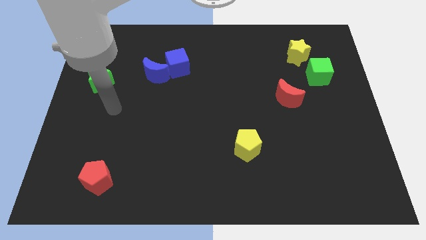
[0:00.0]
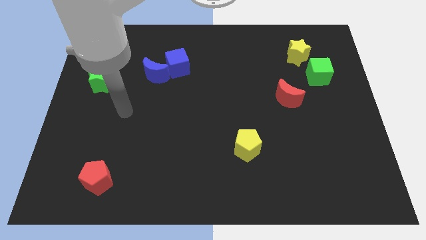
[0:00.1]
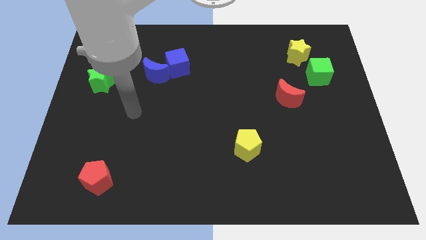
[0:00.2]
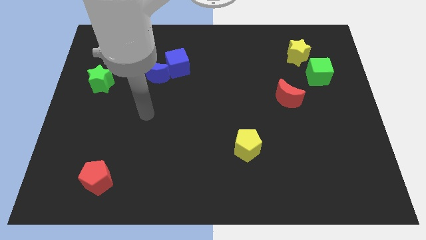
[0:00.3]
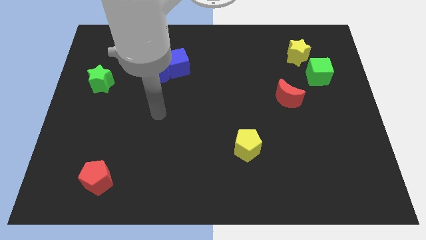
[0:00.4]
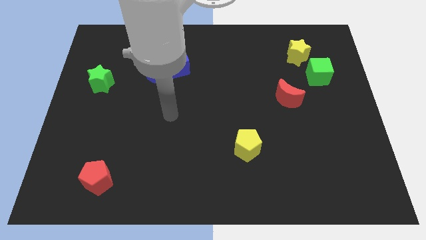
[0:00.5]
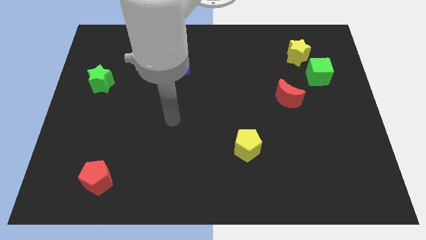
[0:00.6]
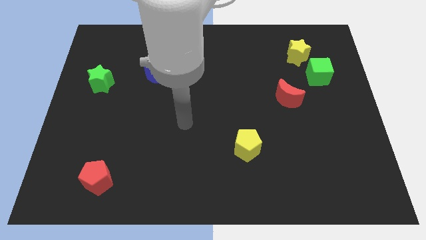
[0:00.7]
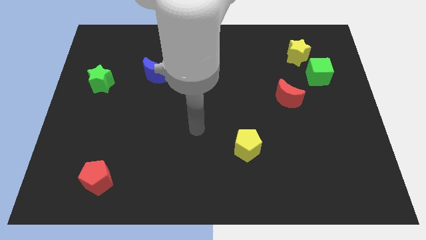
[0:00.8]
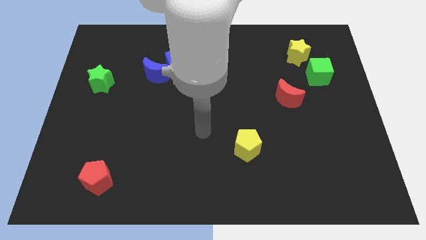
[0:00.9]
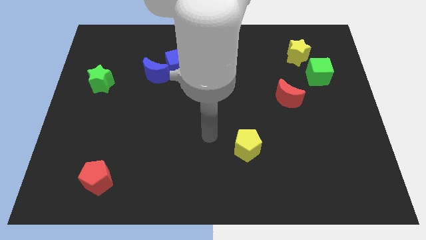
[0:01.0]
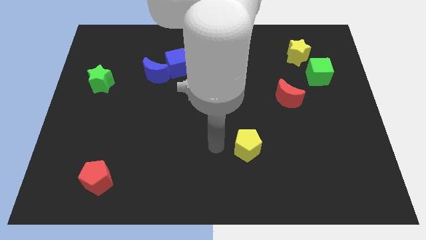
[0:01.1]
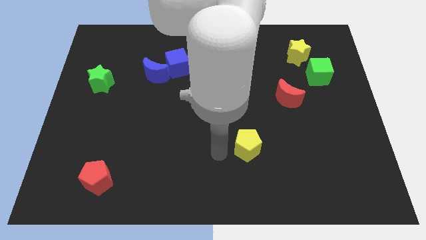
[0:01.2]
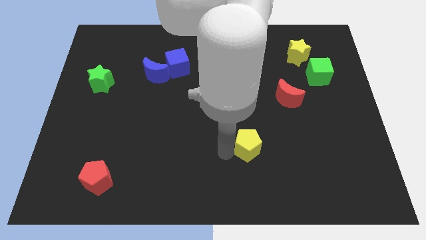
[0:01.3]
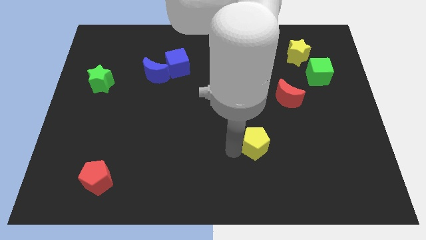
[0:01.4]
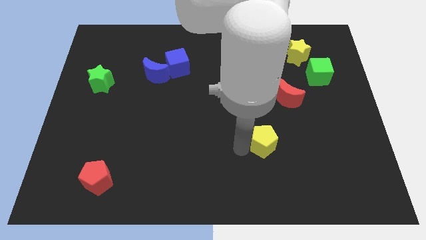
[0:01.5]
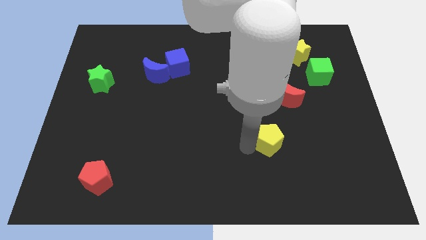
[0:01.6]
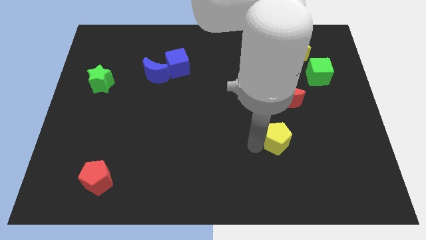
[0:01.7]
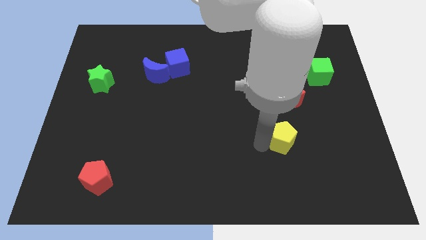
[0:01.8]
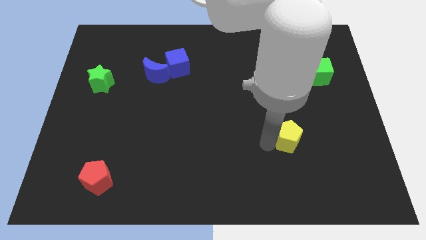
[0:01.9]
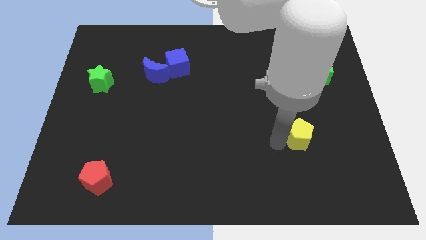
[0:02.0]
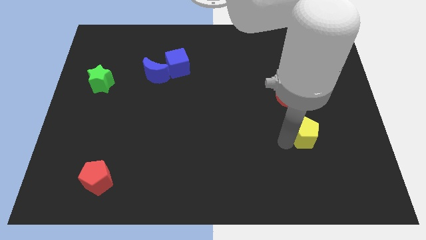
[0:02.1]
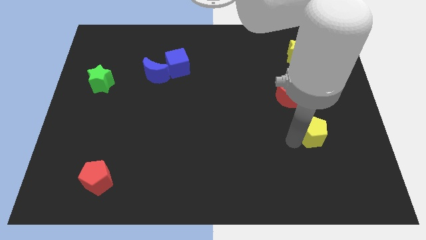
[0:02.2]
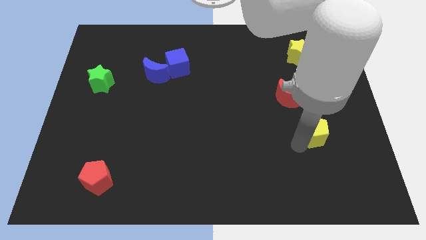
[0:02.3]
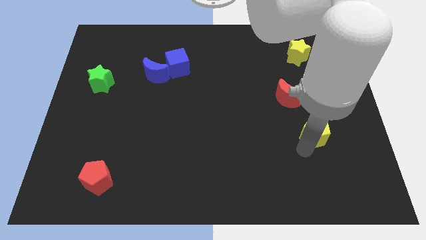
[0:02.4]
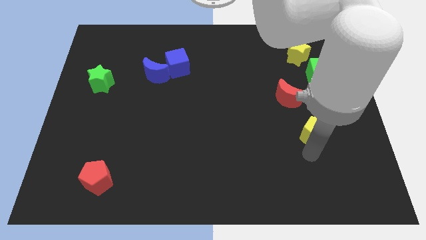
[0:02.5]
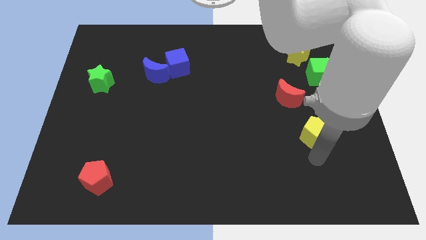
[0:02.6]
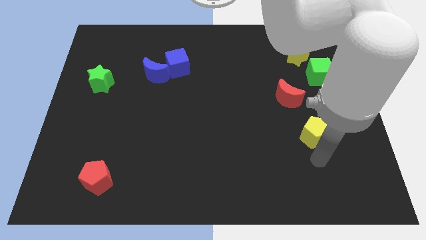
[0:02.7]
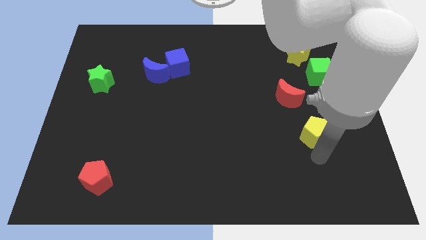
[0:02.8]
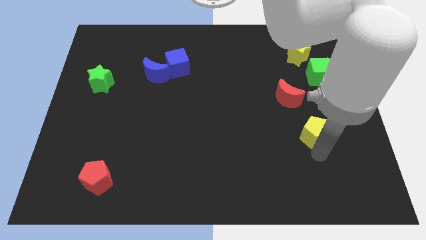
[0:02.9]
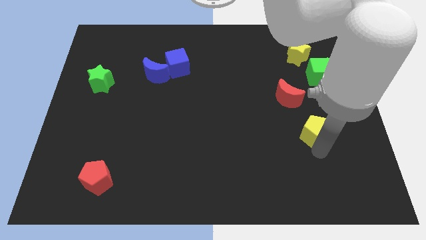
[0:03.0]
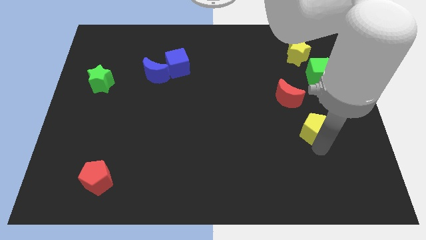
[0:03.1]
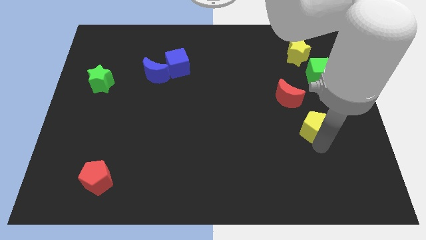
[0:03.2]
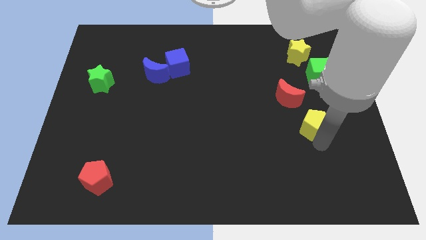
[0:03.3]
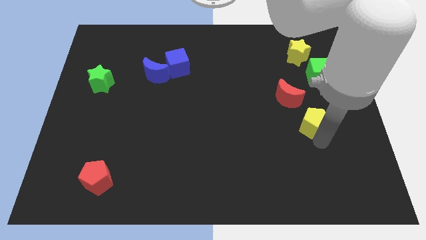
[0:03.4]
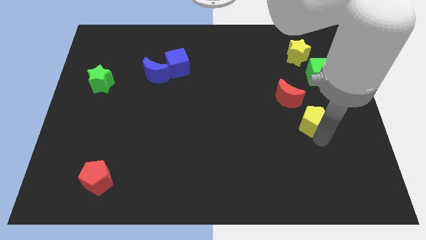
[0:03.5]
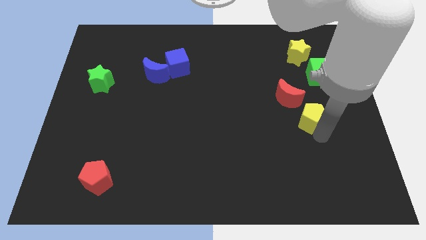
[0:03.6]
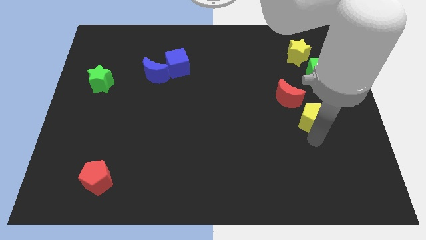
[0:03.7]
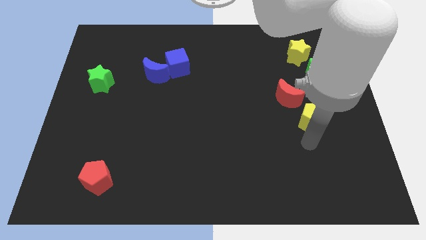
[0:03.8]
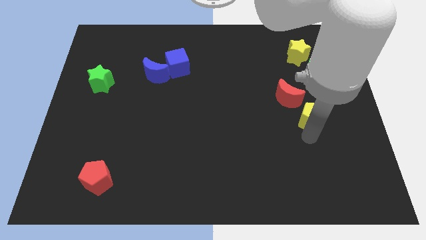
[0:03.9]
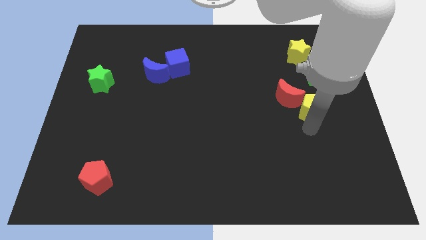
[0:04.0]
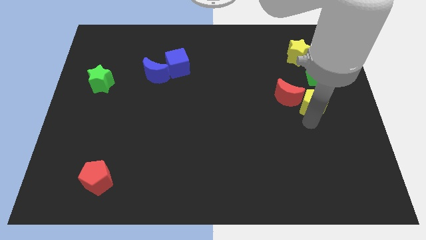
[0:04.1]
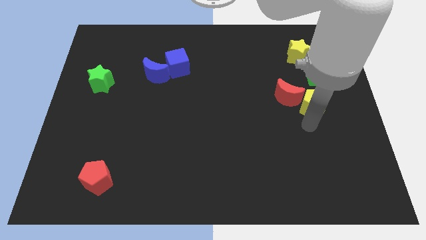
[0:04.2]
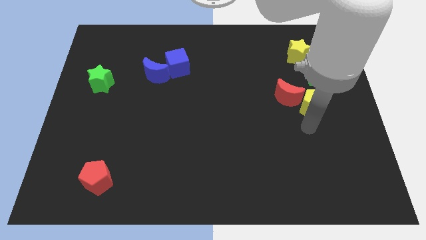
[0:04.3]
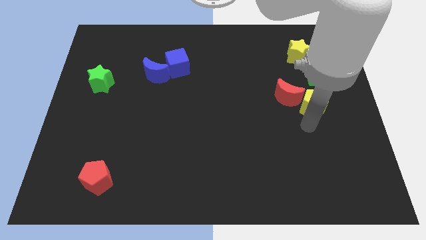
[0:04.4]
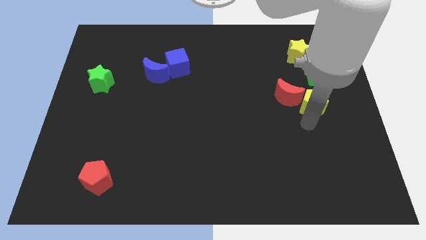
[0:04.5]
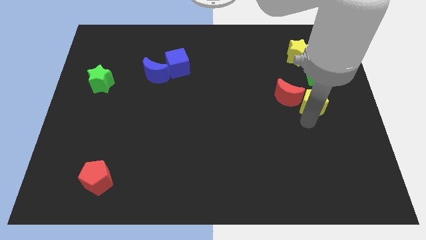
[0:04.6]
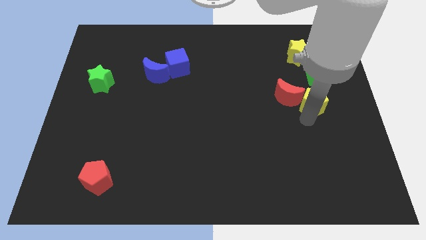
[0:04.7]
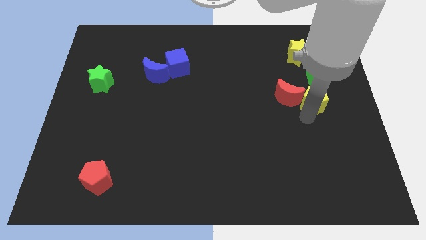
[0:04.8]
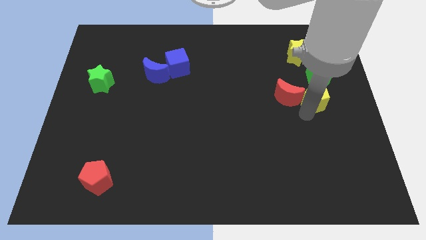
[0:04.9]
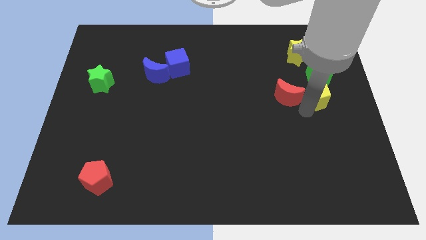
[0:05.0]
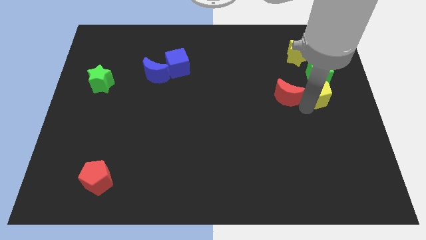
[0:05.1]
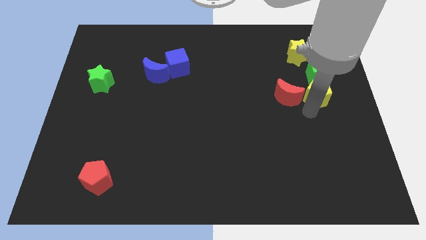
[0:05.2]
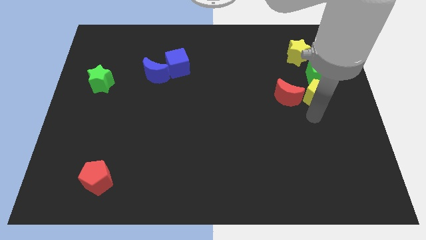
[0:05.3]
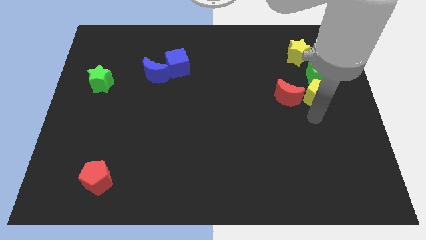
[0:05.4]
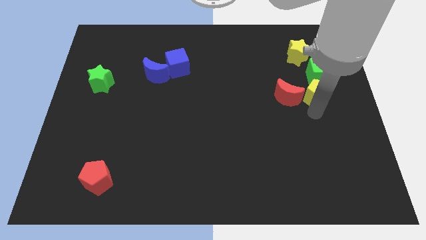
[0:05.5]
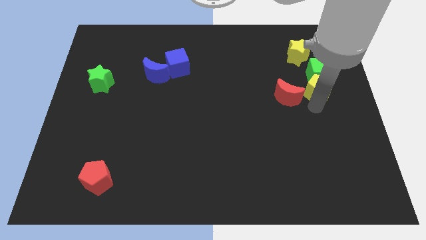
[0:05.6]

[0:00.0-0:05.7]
put the yellow pentagon next to the green cube

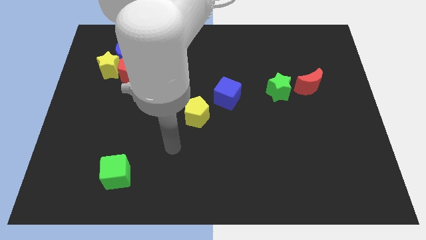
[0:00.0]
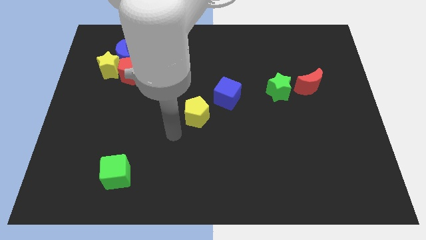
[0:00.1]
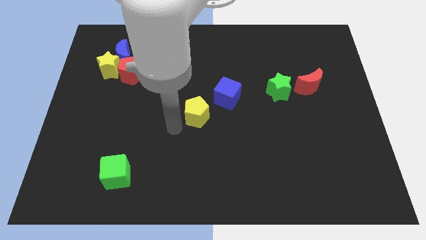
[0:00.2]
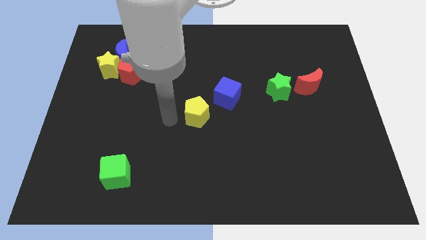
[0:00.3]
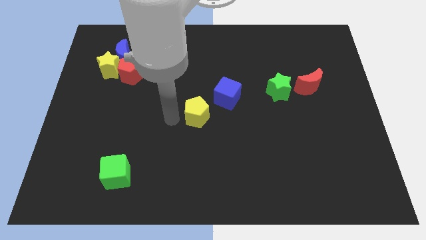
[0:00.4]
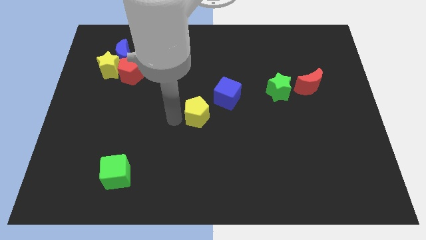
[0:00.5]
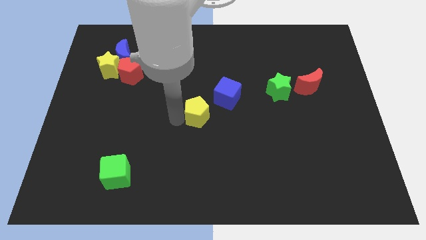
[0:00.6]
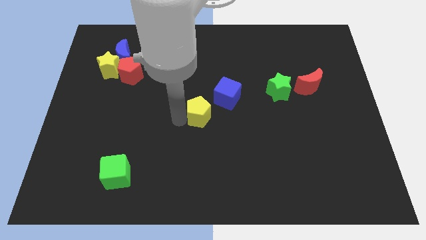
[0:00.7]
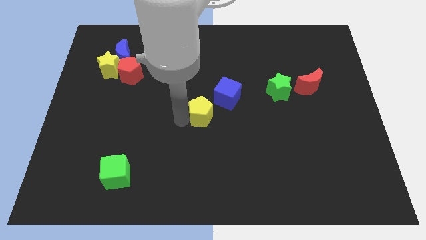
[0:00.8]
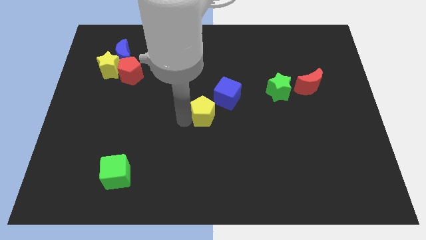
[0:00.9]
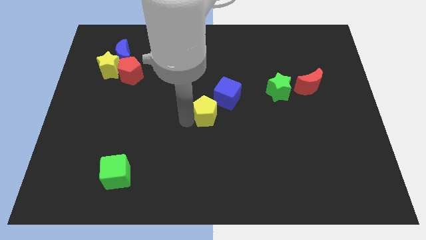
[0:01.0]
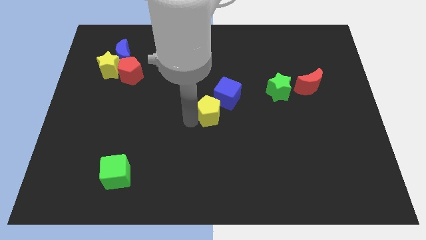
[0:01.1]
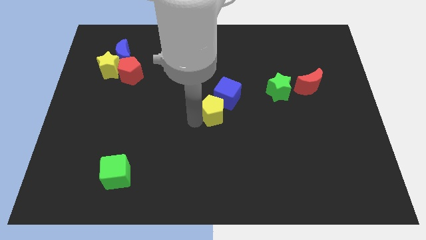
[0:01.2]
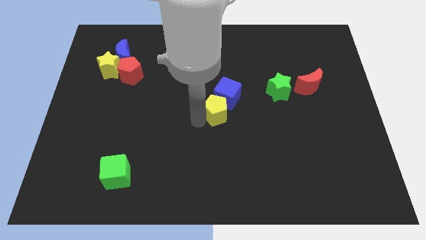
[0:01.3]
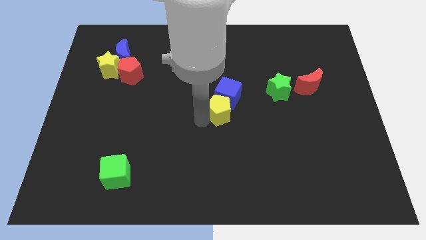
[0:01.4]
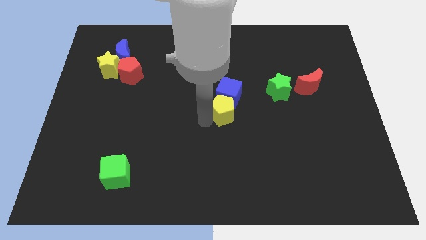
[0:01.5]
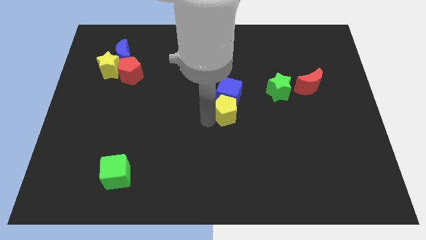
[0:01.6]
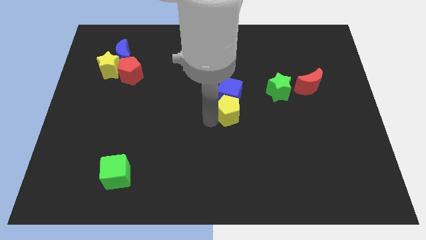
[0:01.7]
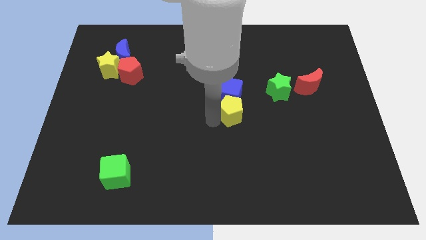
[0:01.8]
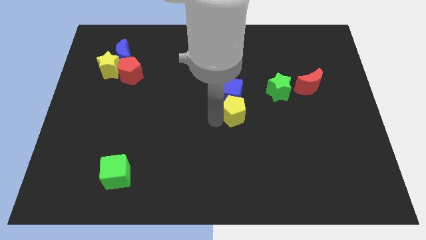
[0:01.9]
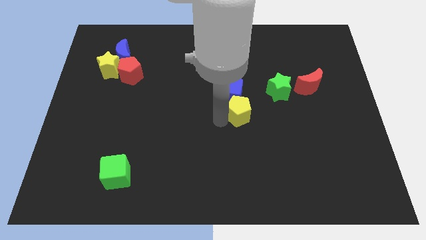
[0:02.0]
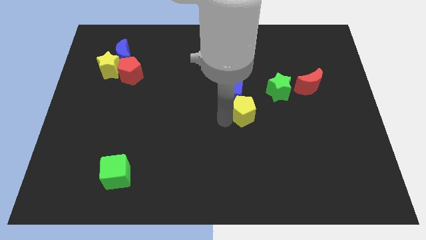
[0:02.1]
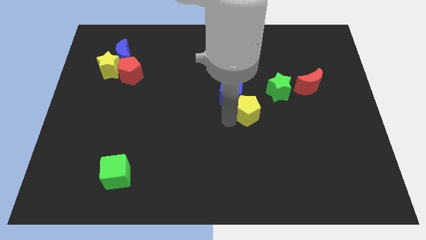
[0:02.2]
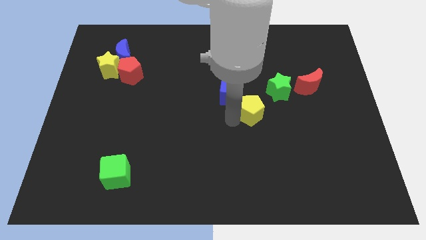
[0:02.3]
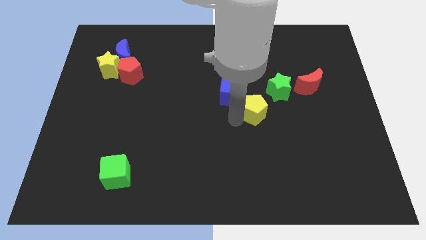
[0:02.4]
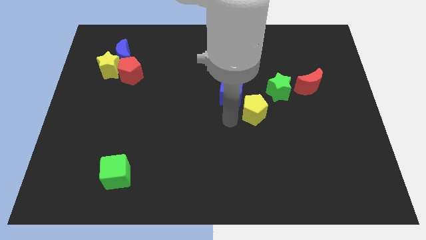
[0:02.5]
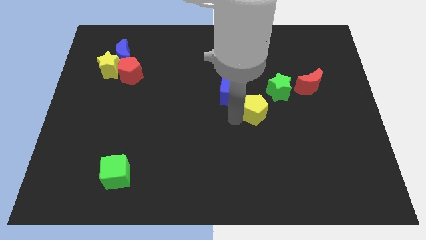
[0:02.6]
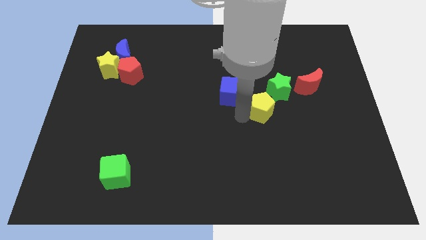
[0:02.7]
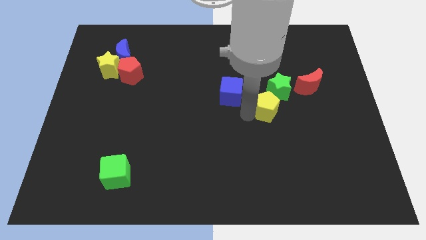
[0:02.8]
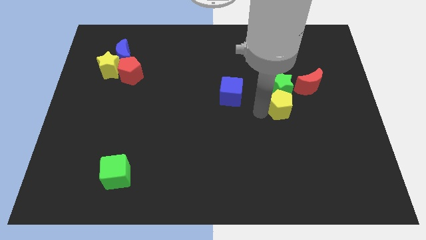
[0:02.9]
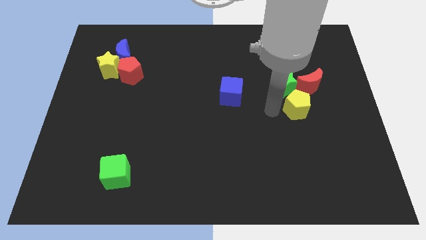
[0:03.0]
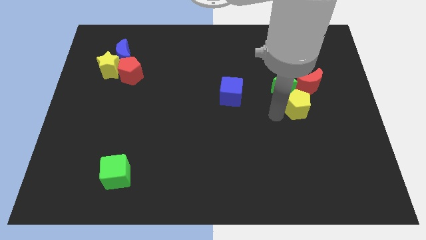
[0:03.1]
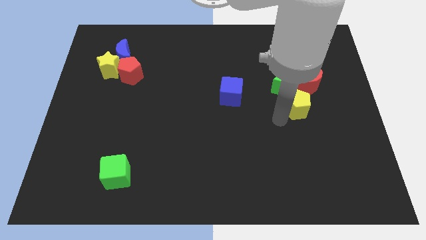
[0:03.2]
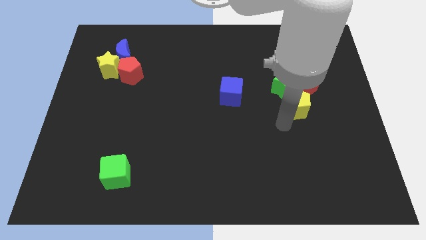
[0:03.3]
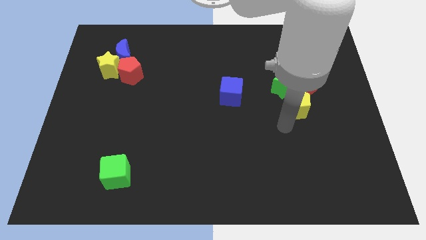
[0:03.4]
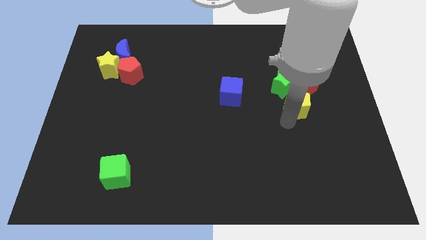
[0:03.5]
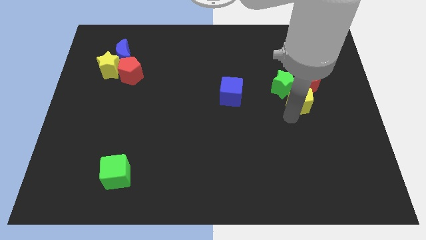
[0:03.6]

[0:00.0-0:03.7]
push the yellow pentagon close to the red moon
